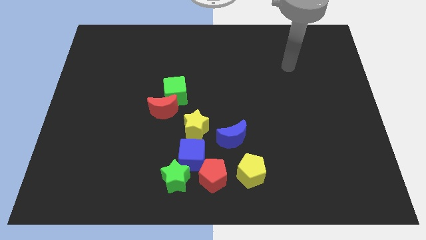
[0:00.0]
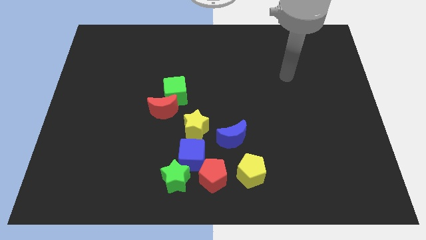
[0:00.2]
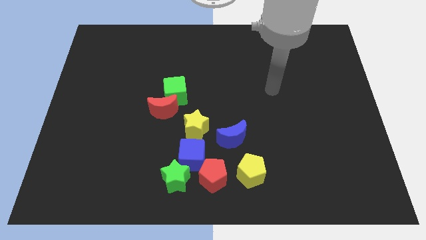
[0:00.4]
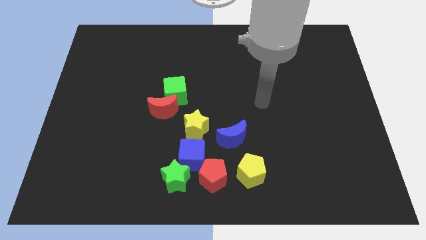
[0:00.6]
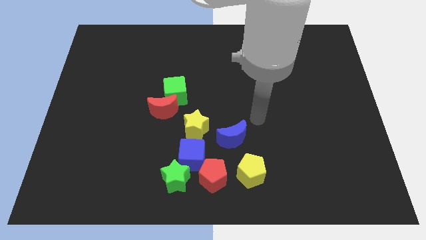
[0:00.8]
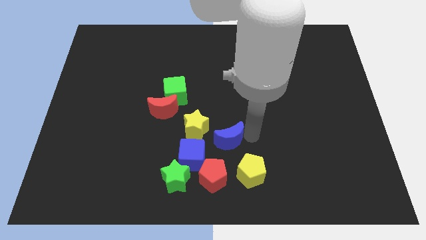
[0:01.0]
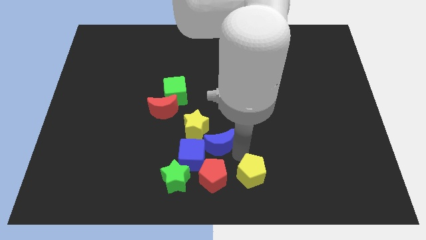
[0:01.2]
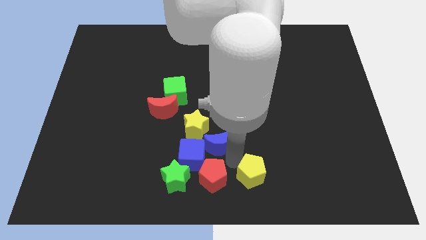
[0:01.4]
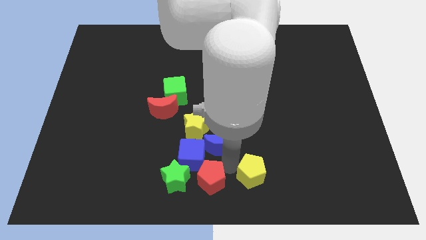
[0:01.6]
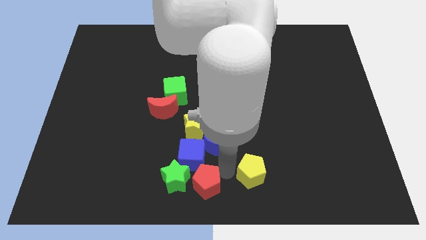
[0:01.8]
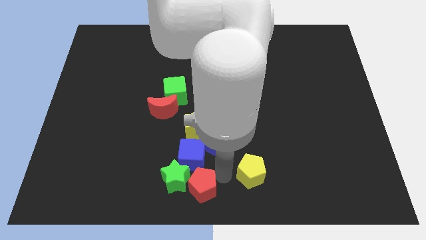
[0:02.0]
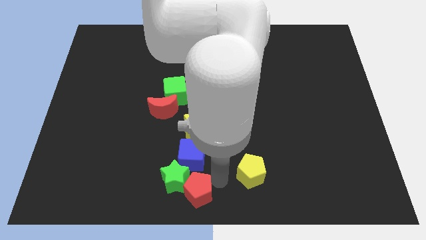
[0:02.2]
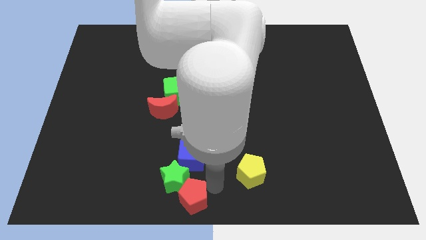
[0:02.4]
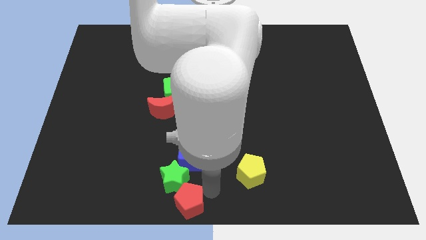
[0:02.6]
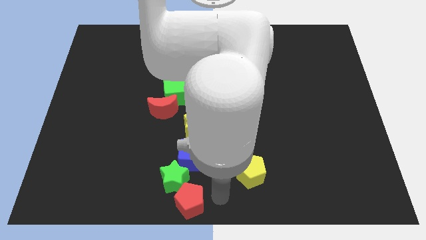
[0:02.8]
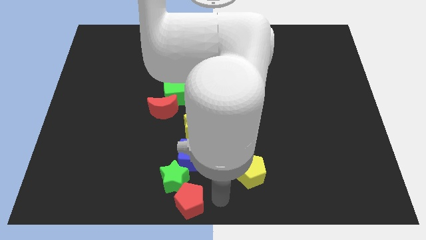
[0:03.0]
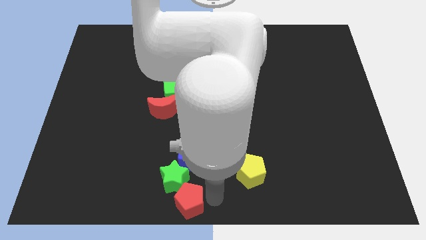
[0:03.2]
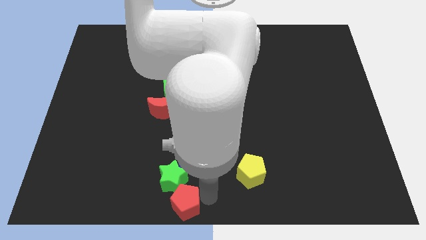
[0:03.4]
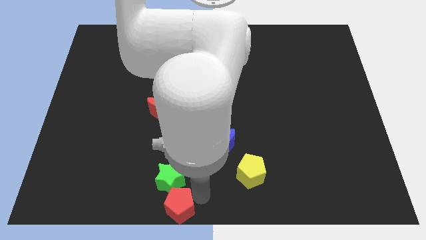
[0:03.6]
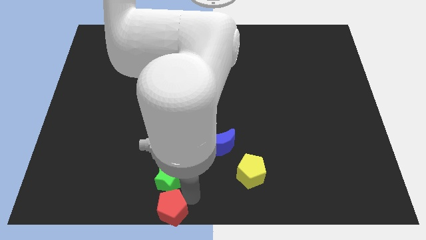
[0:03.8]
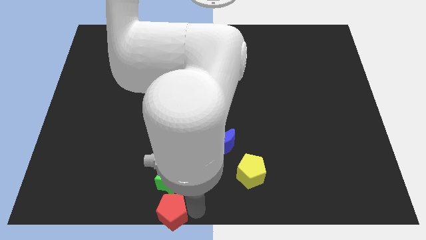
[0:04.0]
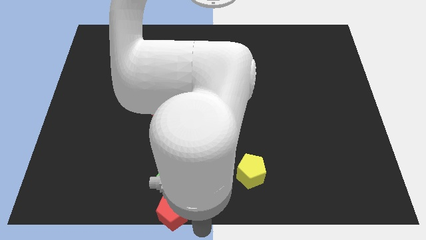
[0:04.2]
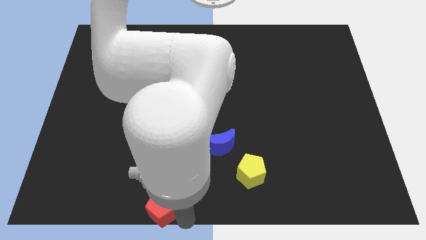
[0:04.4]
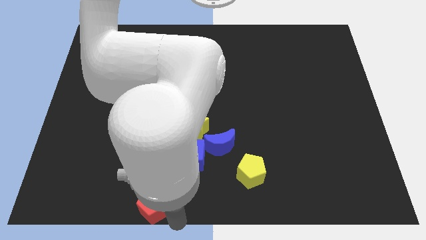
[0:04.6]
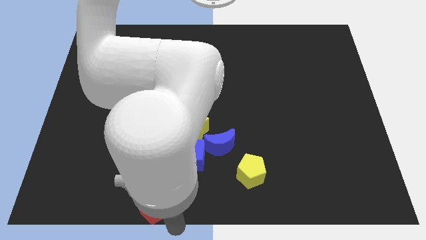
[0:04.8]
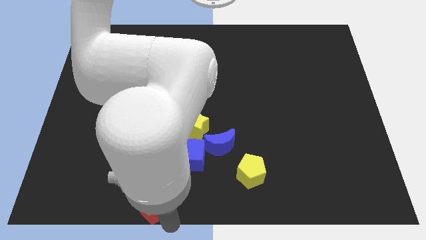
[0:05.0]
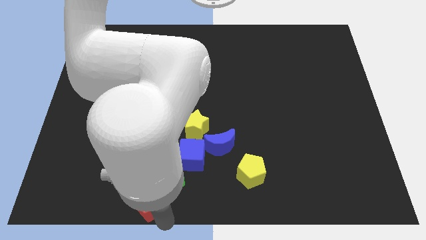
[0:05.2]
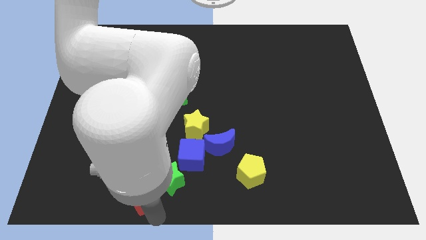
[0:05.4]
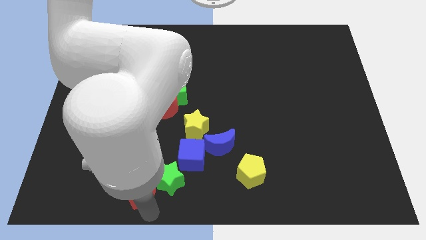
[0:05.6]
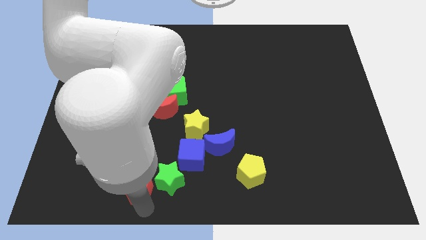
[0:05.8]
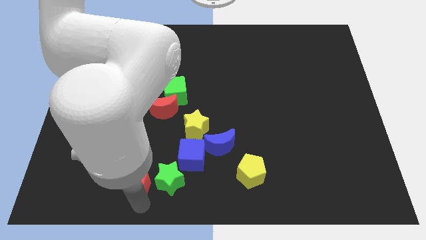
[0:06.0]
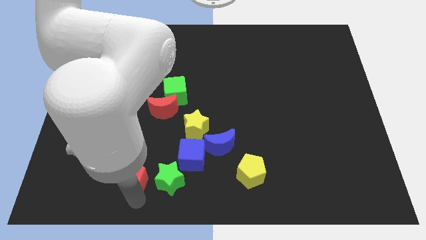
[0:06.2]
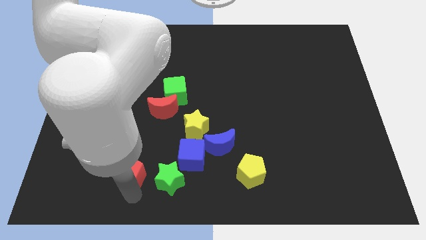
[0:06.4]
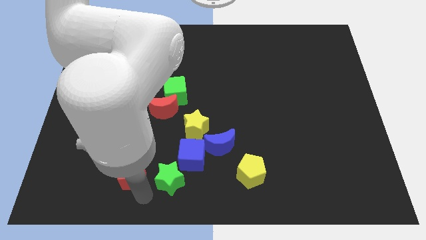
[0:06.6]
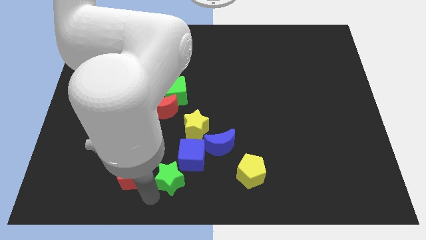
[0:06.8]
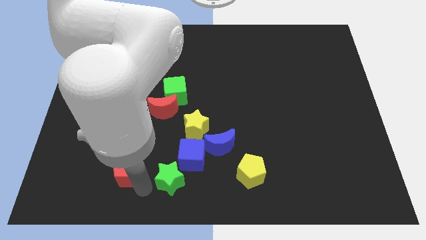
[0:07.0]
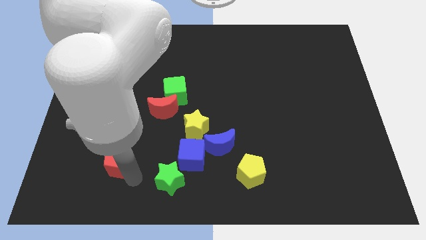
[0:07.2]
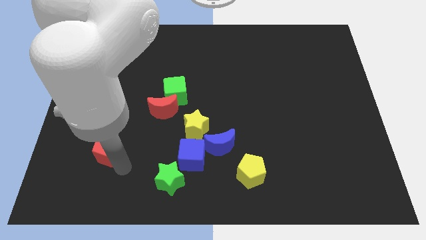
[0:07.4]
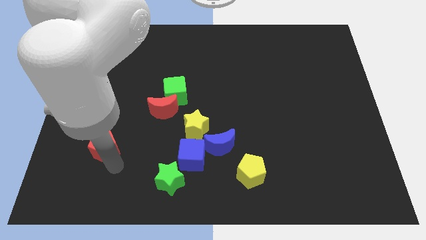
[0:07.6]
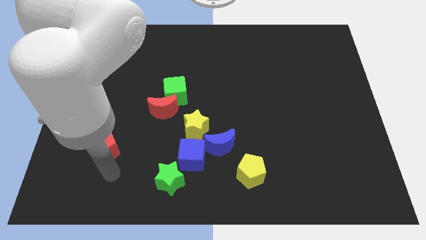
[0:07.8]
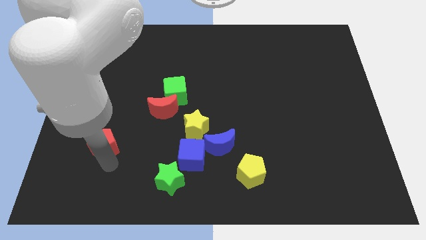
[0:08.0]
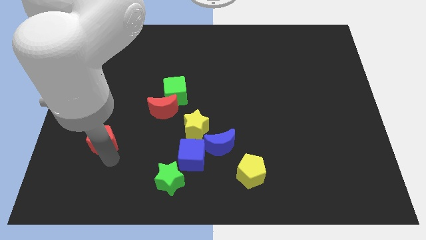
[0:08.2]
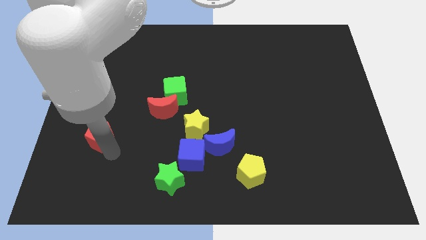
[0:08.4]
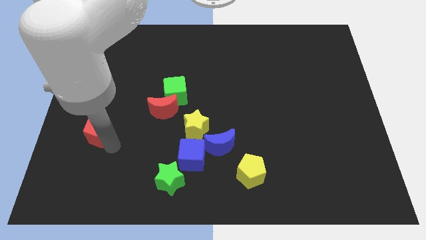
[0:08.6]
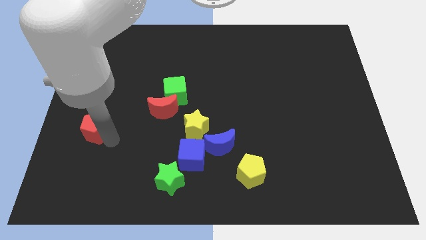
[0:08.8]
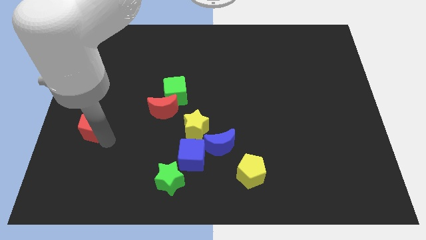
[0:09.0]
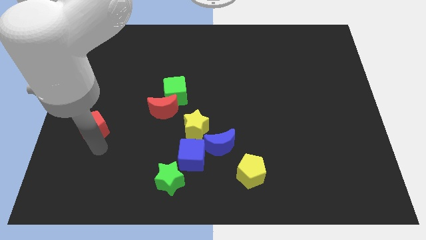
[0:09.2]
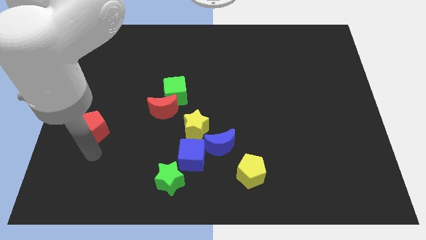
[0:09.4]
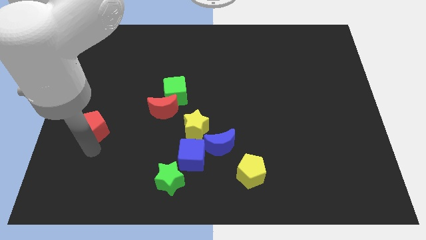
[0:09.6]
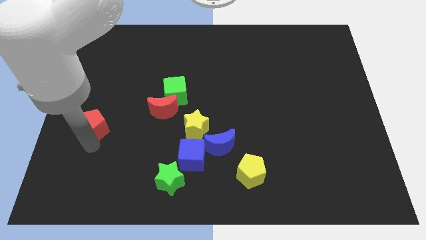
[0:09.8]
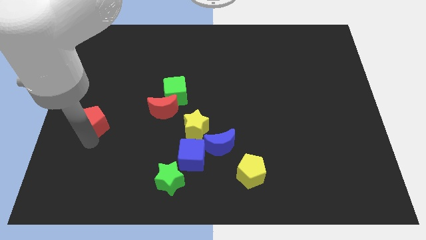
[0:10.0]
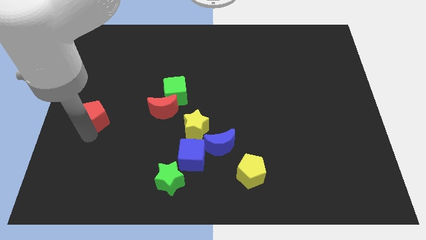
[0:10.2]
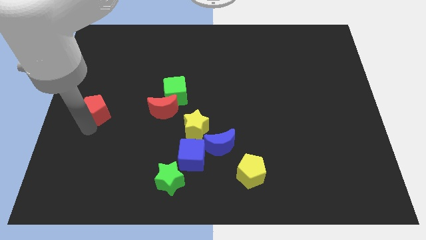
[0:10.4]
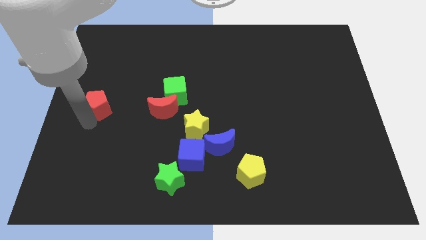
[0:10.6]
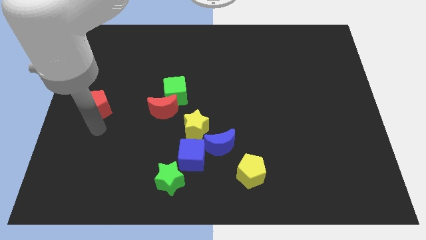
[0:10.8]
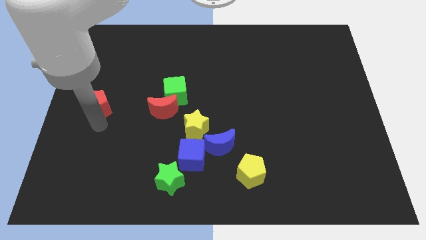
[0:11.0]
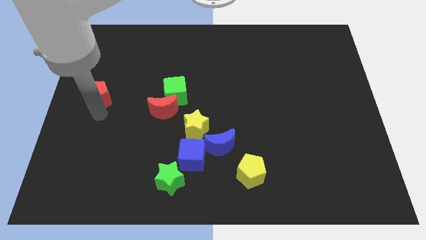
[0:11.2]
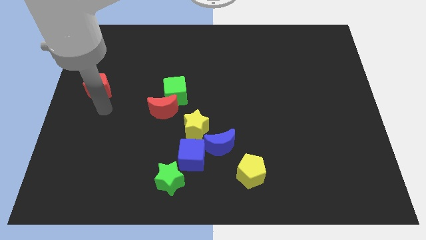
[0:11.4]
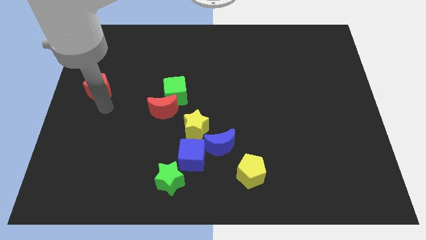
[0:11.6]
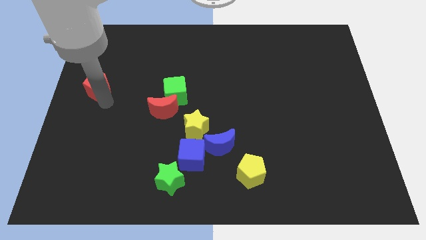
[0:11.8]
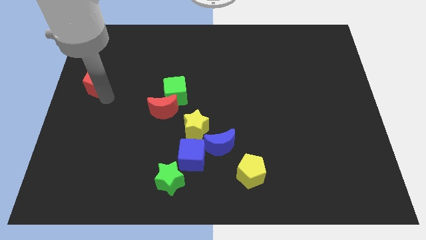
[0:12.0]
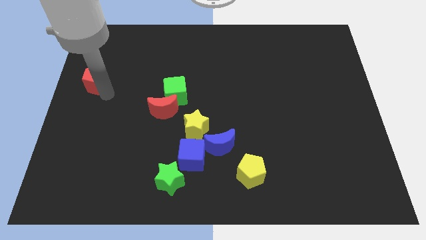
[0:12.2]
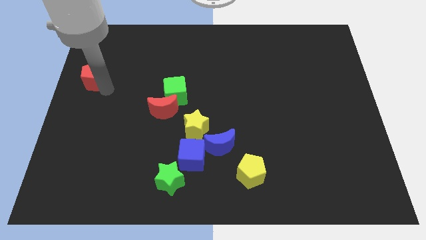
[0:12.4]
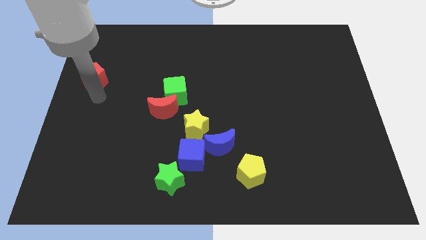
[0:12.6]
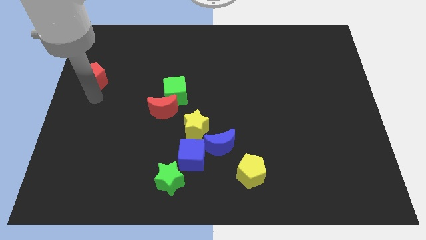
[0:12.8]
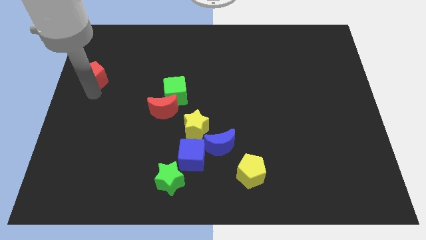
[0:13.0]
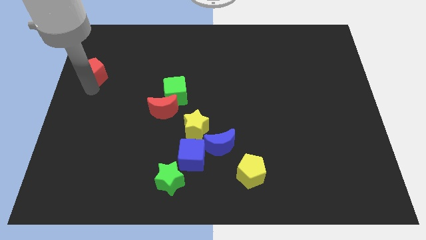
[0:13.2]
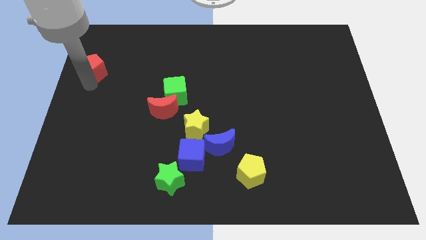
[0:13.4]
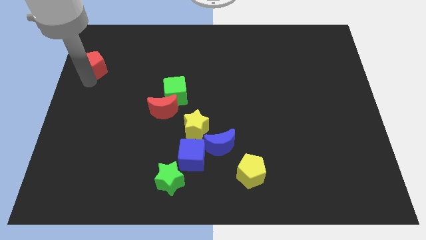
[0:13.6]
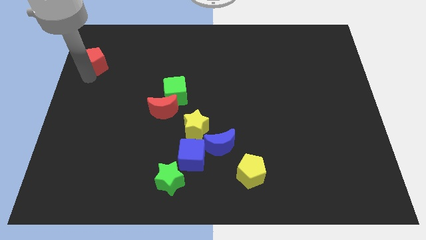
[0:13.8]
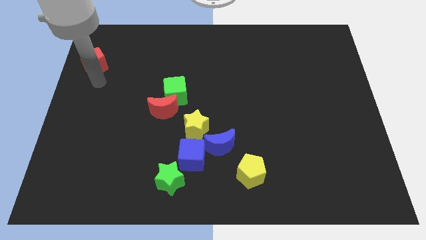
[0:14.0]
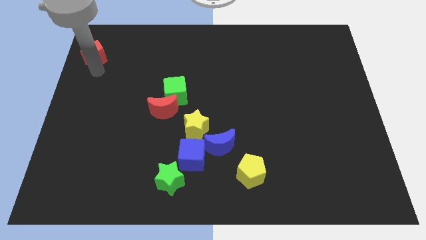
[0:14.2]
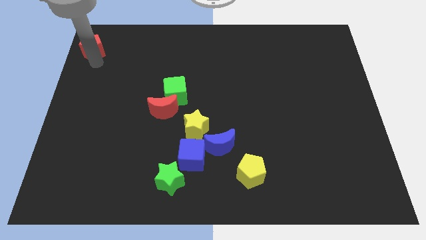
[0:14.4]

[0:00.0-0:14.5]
push the red pentagon to the top left of the board
